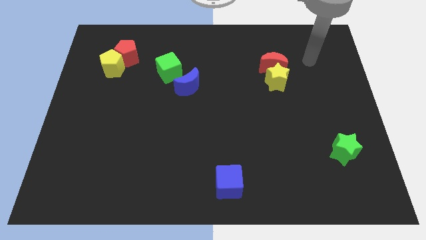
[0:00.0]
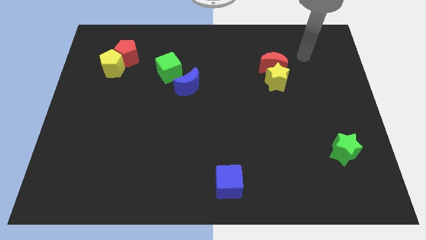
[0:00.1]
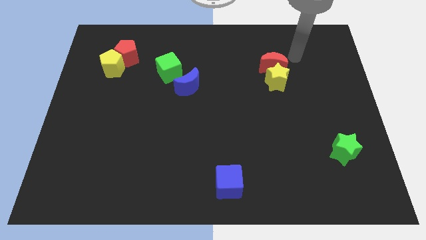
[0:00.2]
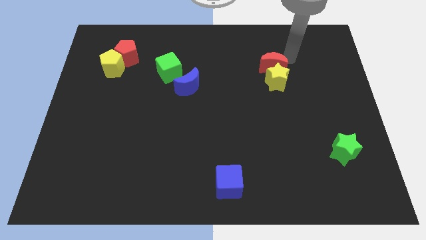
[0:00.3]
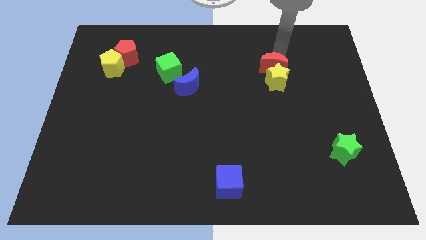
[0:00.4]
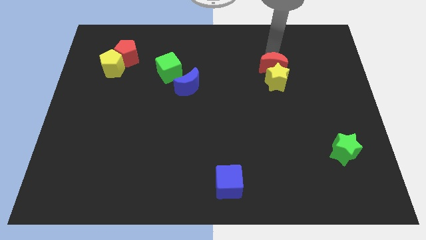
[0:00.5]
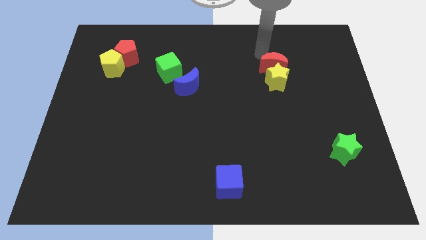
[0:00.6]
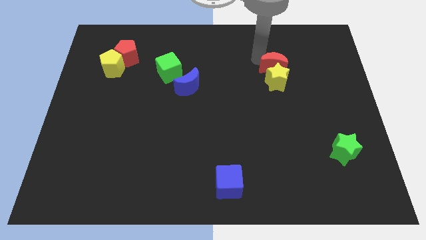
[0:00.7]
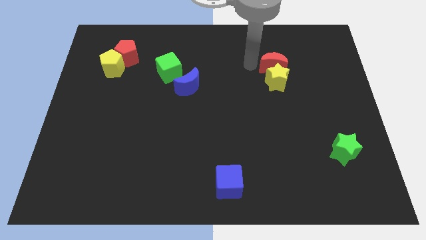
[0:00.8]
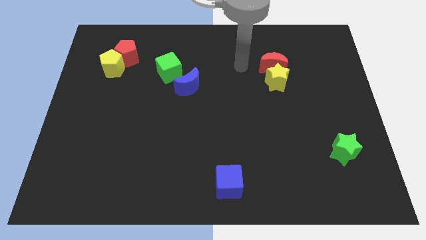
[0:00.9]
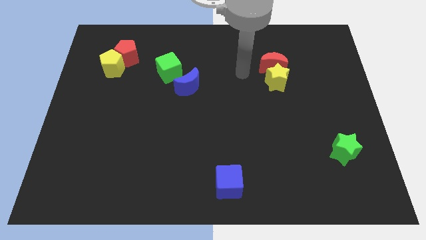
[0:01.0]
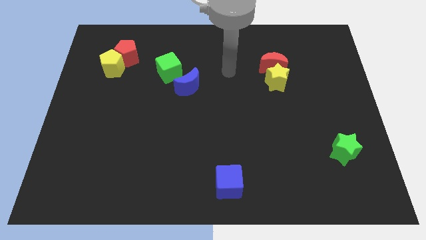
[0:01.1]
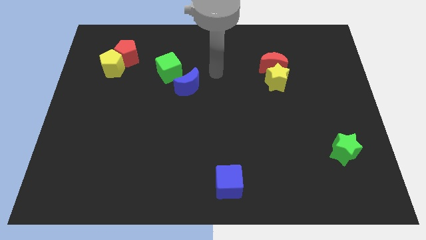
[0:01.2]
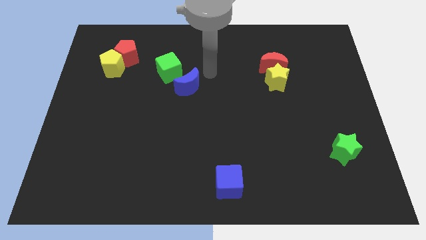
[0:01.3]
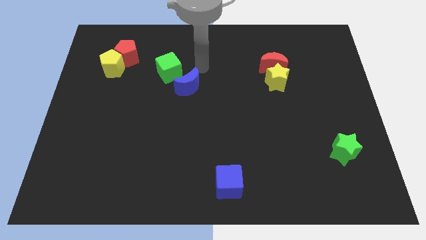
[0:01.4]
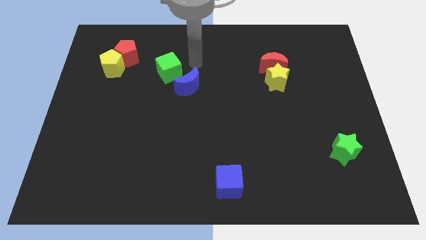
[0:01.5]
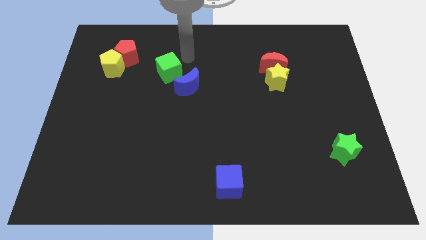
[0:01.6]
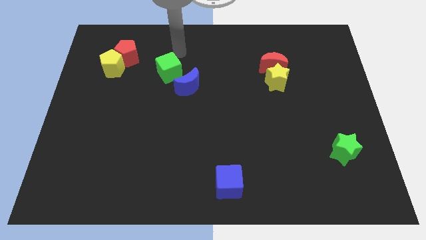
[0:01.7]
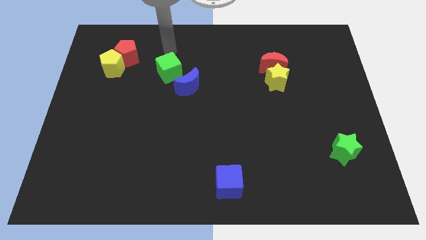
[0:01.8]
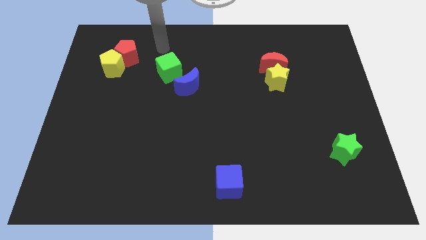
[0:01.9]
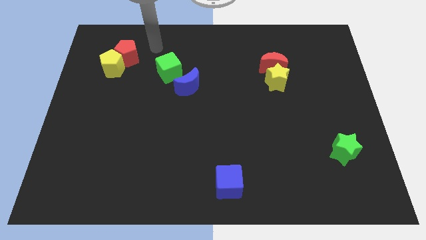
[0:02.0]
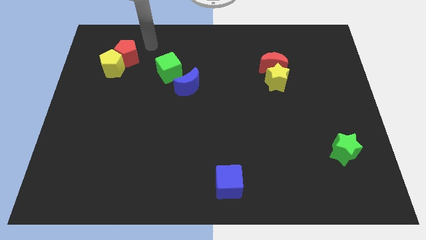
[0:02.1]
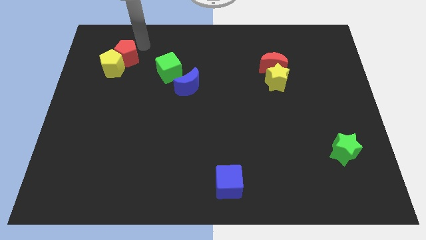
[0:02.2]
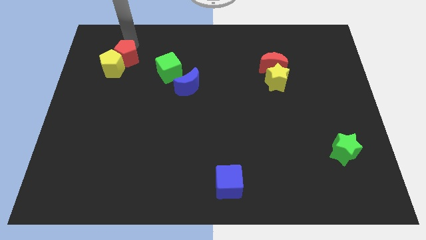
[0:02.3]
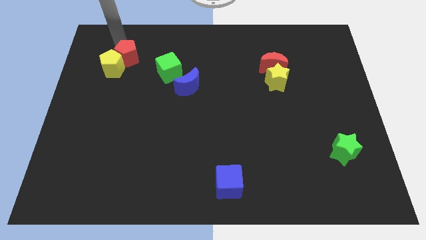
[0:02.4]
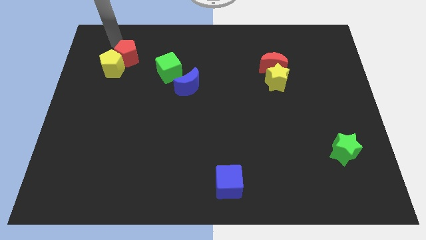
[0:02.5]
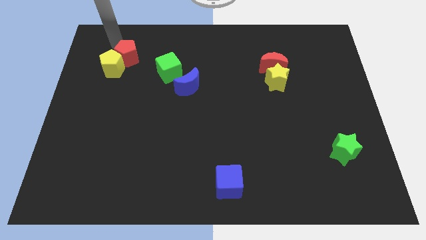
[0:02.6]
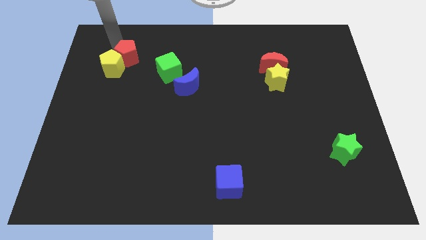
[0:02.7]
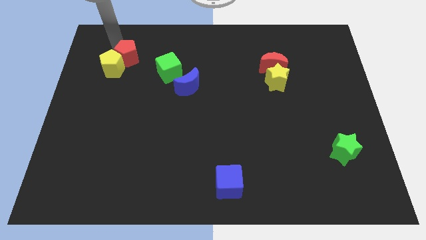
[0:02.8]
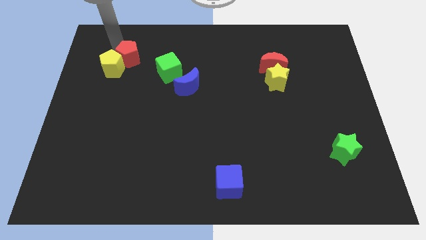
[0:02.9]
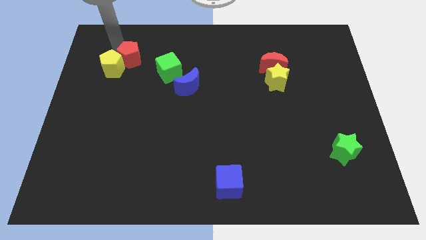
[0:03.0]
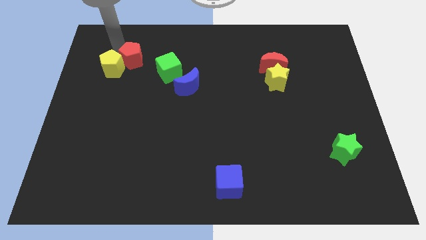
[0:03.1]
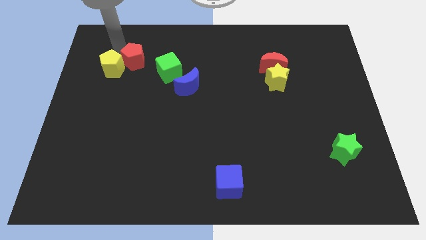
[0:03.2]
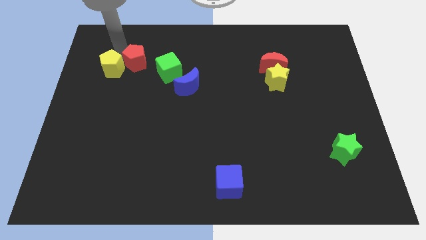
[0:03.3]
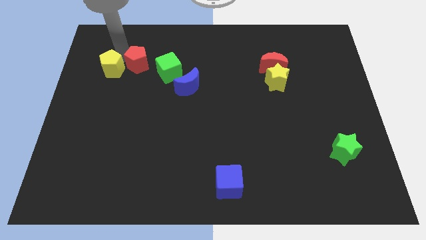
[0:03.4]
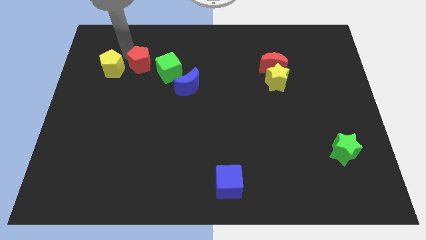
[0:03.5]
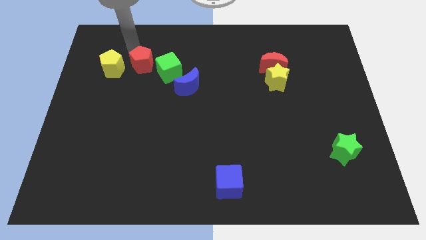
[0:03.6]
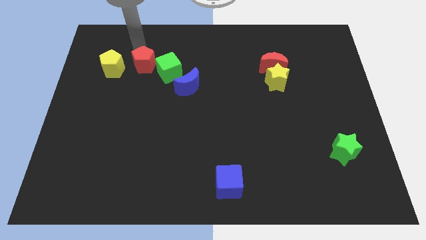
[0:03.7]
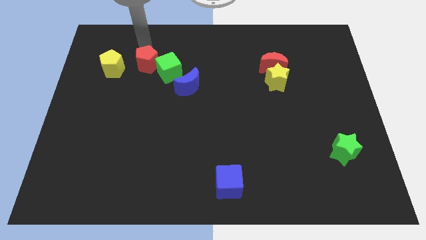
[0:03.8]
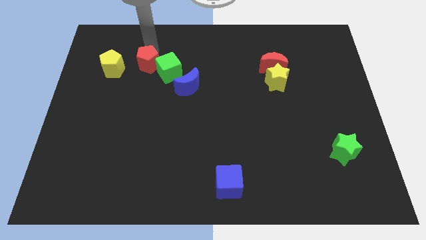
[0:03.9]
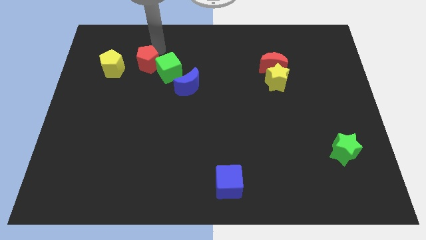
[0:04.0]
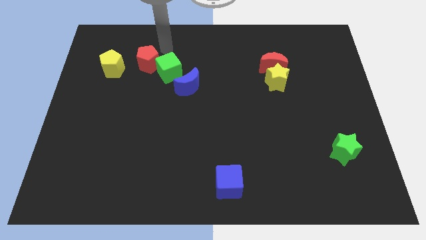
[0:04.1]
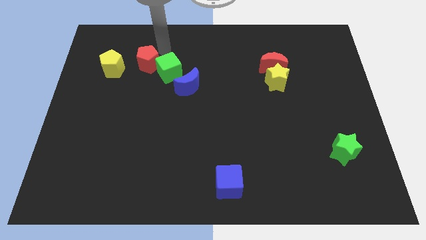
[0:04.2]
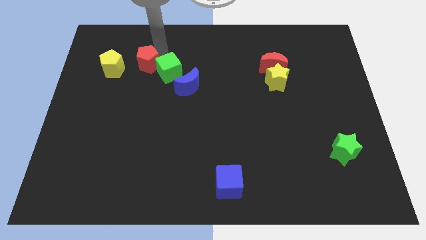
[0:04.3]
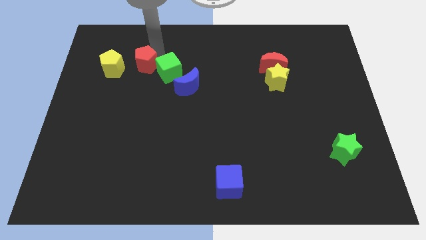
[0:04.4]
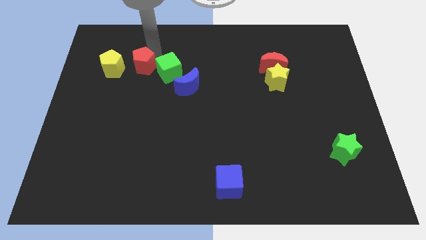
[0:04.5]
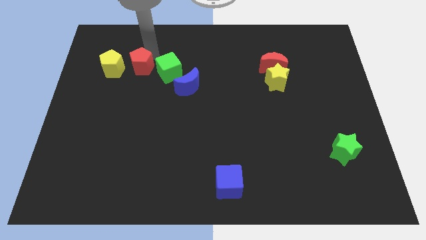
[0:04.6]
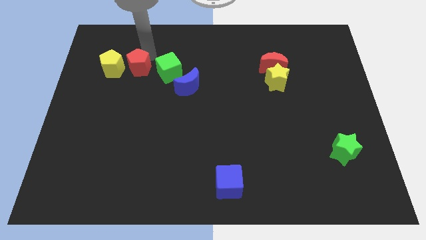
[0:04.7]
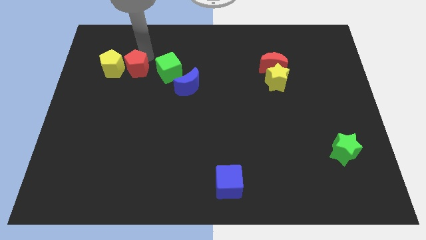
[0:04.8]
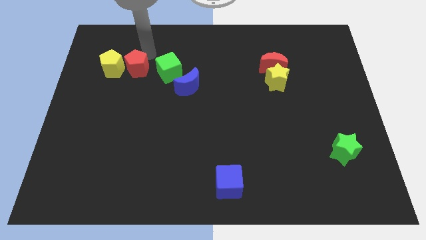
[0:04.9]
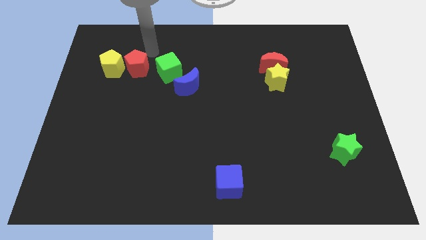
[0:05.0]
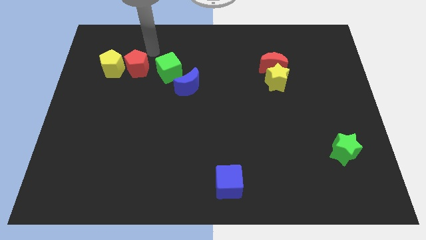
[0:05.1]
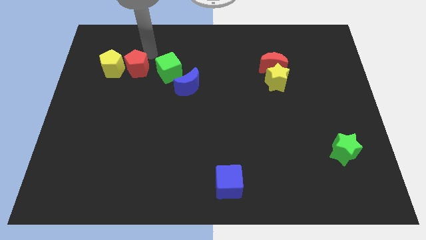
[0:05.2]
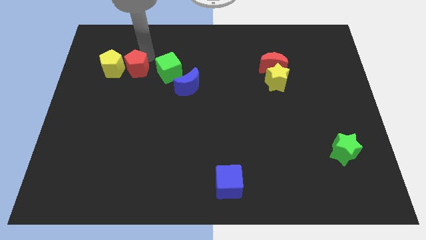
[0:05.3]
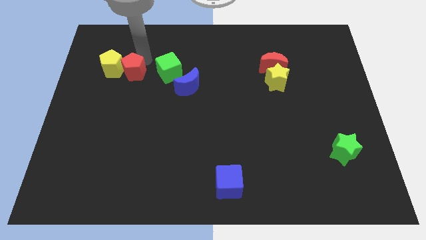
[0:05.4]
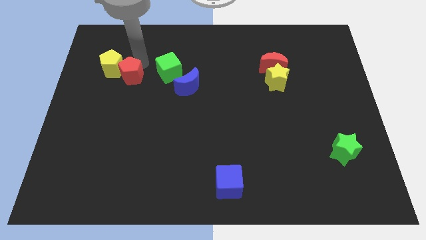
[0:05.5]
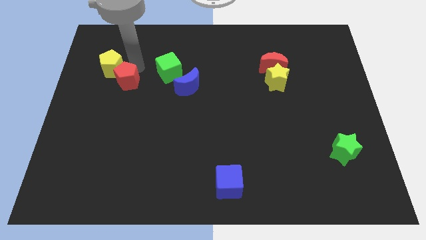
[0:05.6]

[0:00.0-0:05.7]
slide the red pentagon slightly down

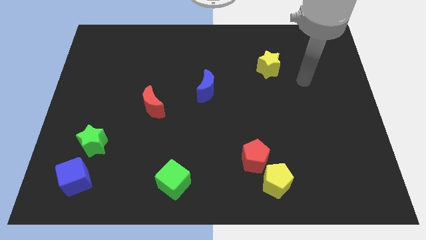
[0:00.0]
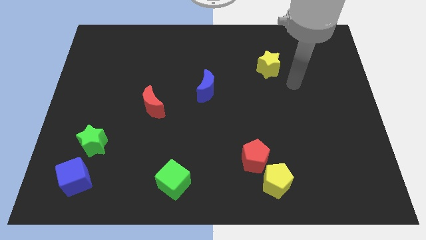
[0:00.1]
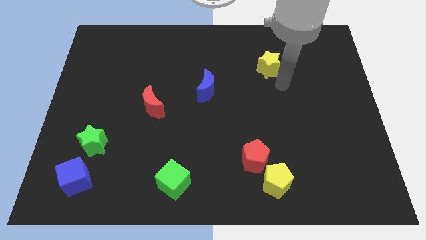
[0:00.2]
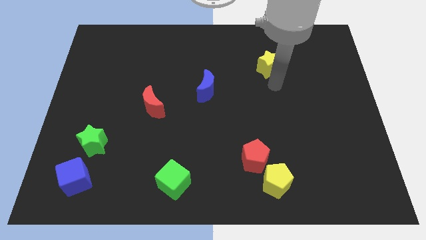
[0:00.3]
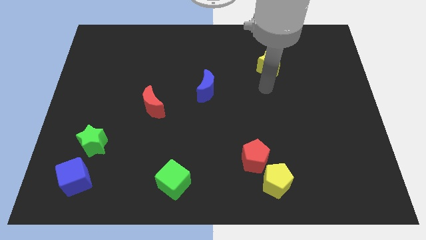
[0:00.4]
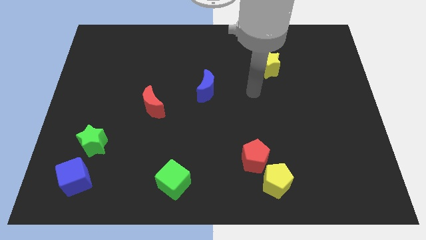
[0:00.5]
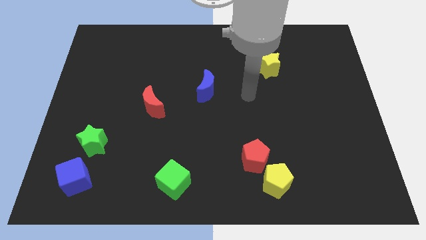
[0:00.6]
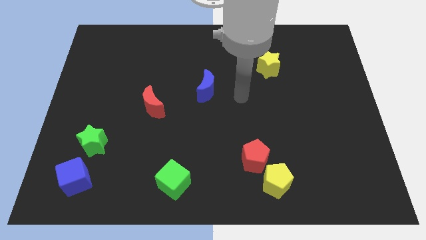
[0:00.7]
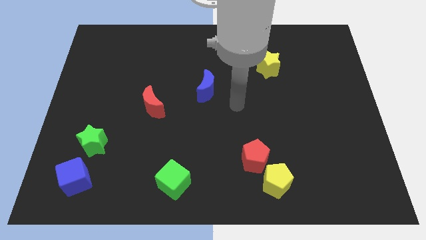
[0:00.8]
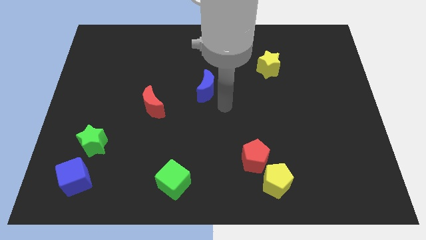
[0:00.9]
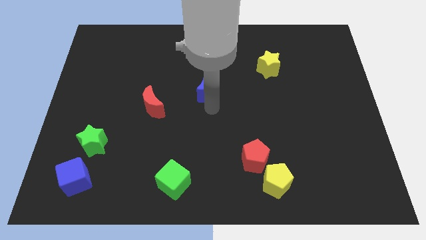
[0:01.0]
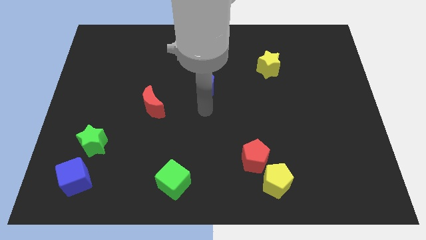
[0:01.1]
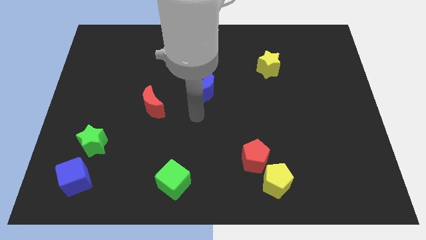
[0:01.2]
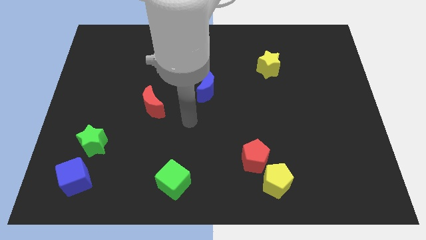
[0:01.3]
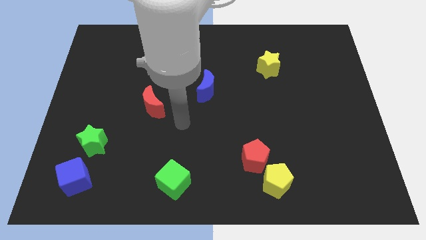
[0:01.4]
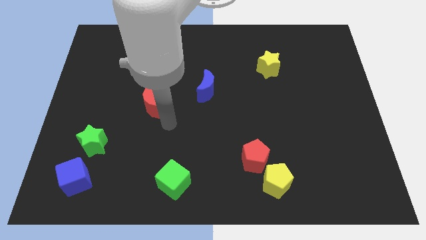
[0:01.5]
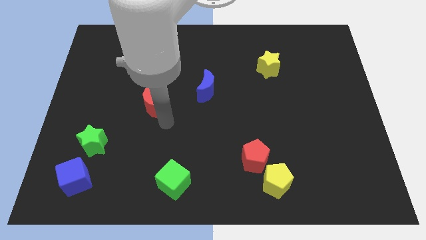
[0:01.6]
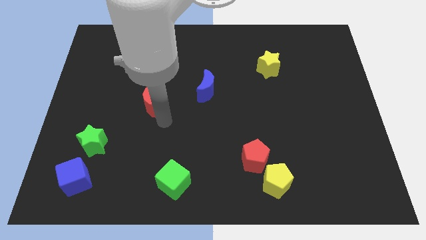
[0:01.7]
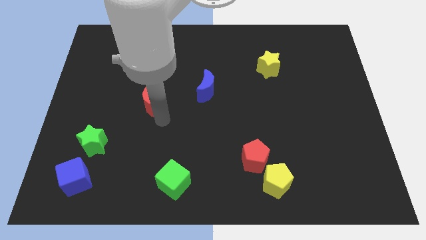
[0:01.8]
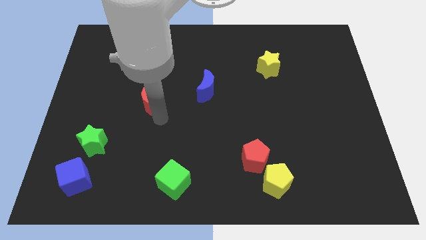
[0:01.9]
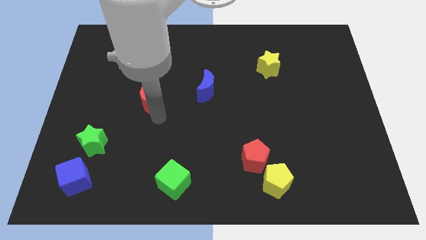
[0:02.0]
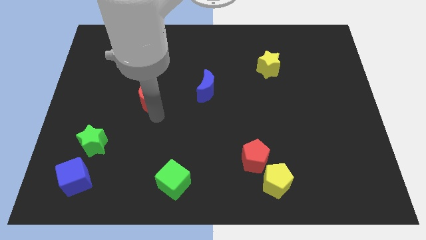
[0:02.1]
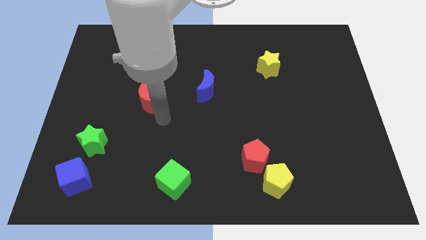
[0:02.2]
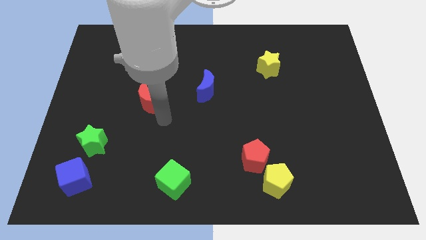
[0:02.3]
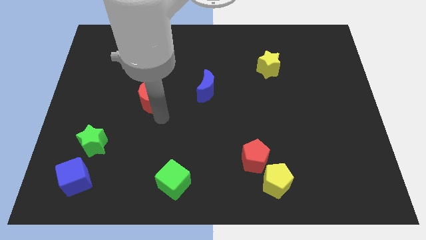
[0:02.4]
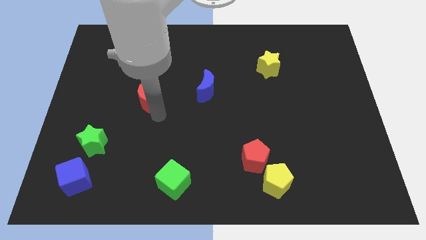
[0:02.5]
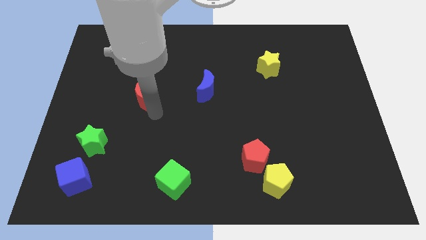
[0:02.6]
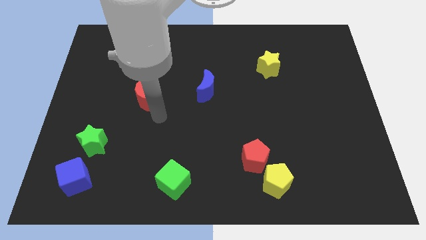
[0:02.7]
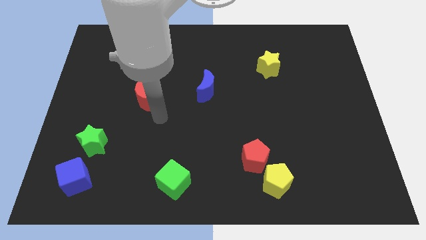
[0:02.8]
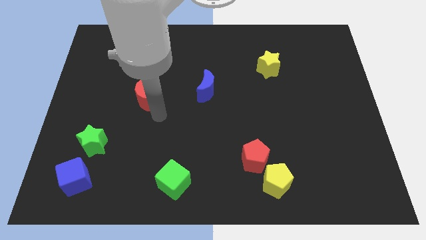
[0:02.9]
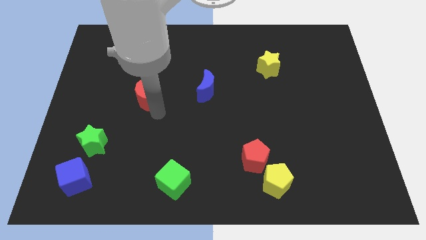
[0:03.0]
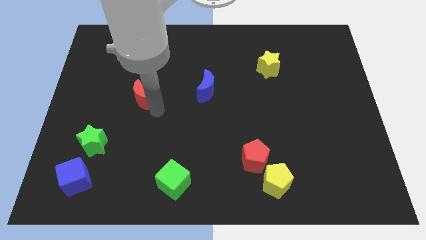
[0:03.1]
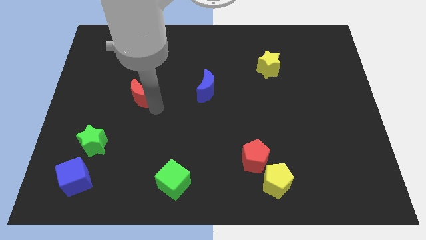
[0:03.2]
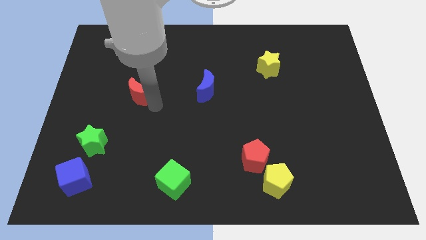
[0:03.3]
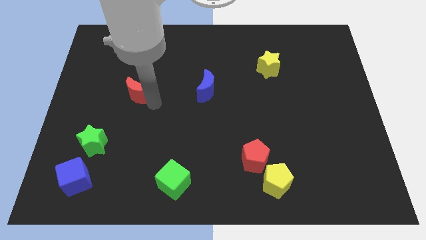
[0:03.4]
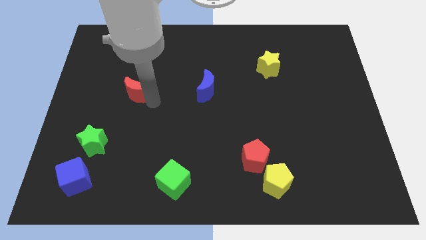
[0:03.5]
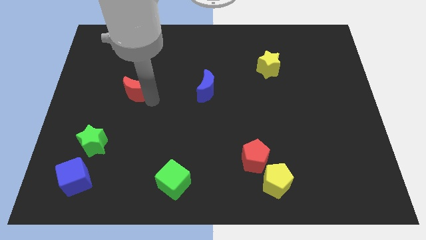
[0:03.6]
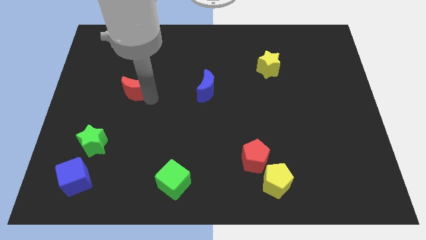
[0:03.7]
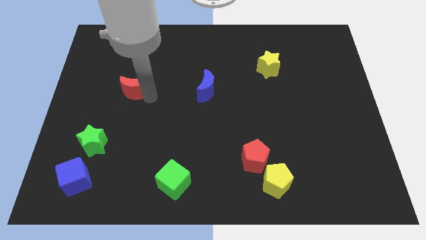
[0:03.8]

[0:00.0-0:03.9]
push the red moon diagonally up and to the left a little
